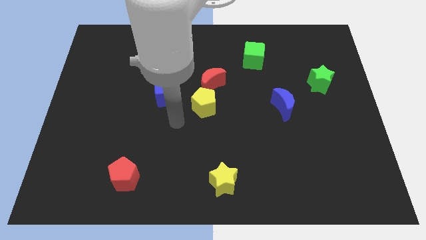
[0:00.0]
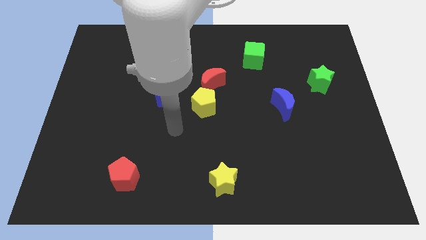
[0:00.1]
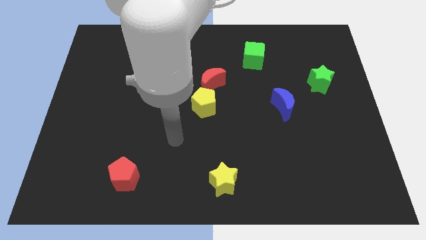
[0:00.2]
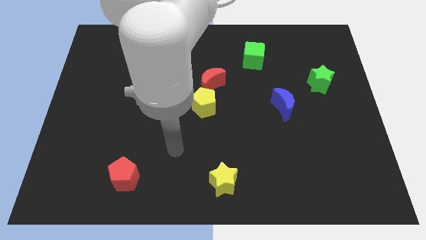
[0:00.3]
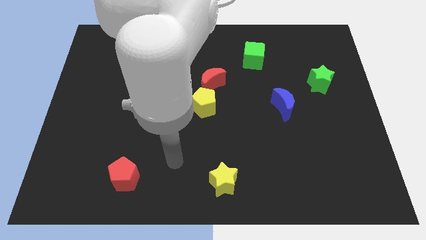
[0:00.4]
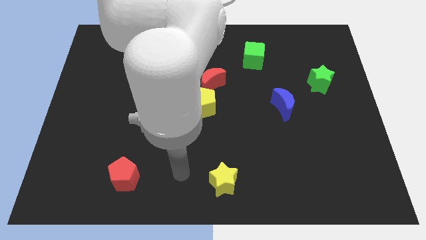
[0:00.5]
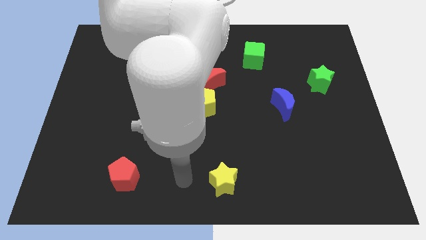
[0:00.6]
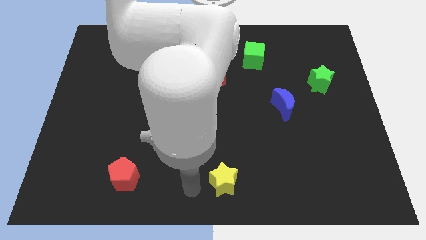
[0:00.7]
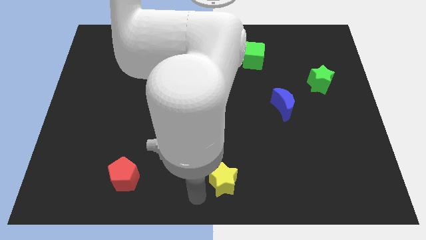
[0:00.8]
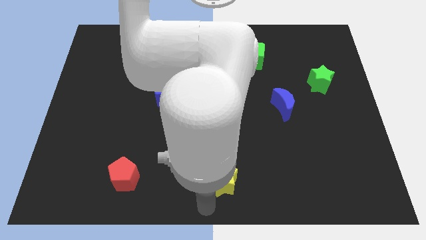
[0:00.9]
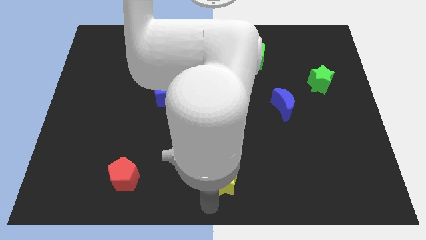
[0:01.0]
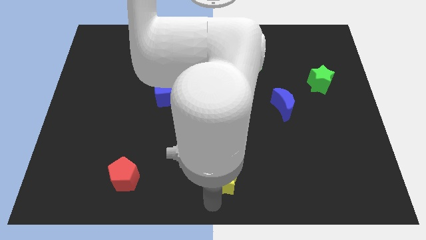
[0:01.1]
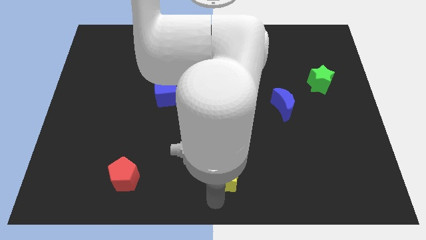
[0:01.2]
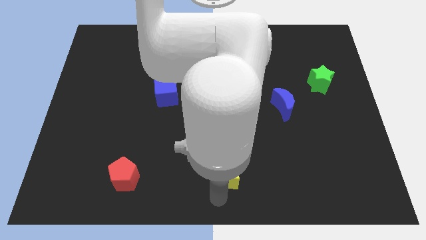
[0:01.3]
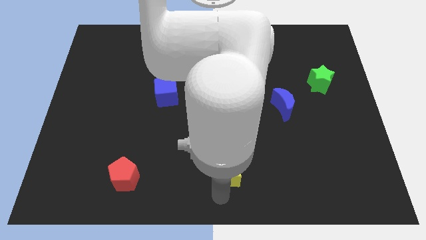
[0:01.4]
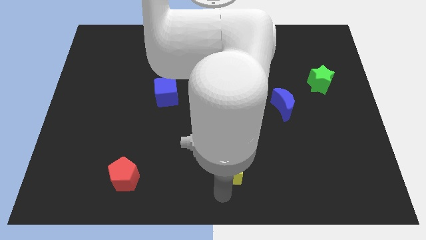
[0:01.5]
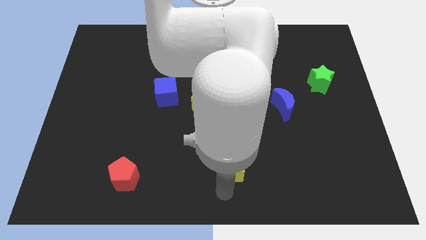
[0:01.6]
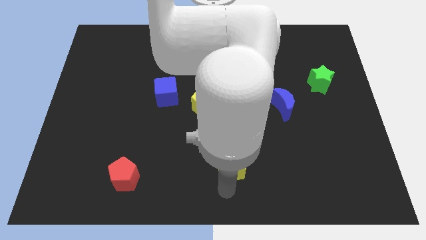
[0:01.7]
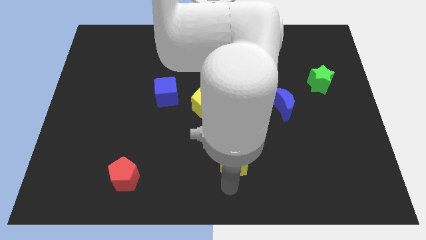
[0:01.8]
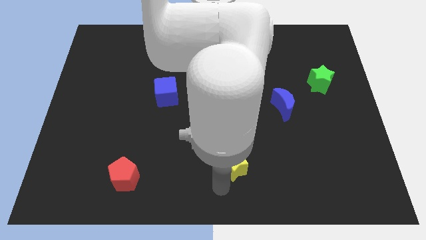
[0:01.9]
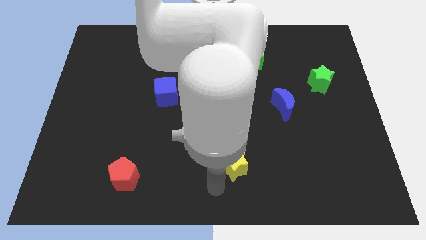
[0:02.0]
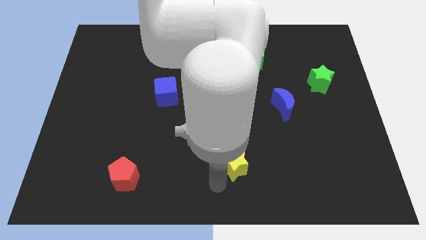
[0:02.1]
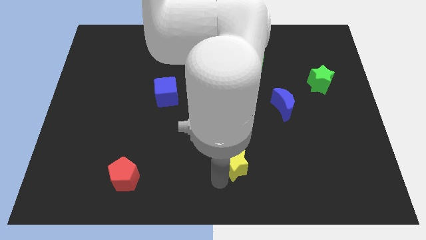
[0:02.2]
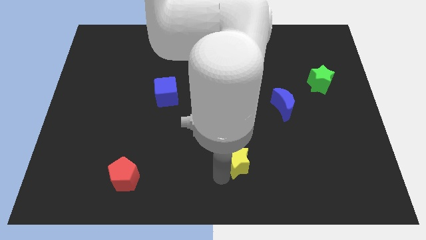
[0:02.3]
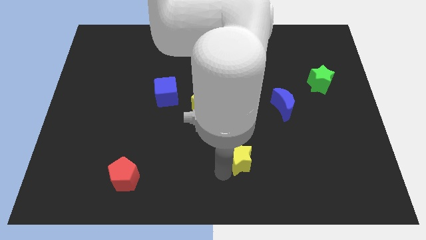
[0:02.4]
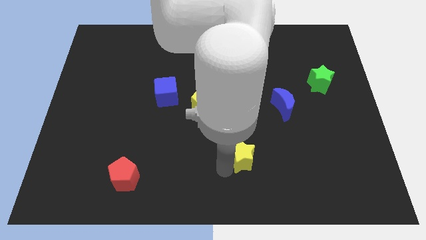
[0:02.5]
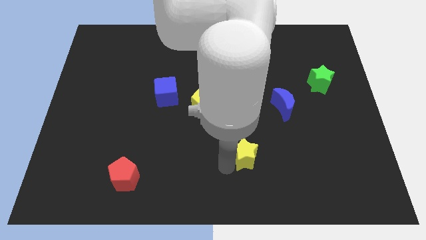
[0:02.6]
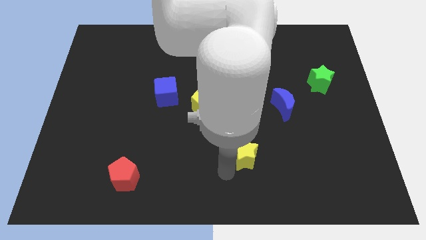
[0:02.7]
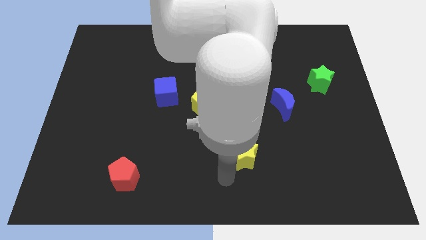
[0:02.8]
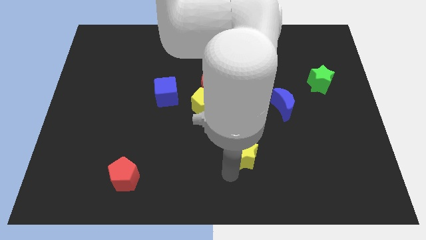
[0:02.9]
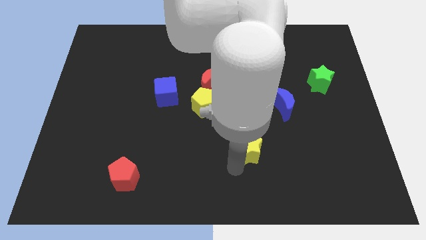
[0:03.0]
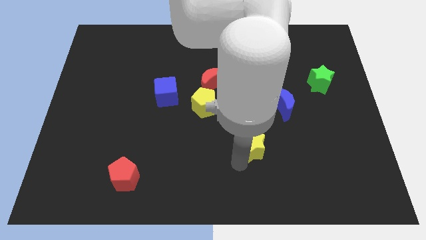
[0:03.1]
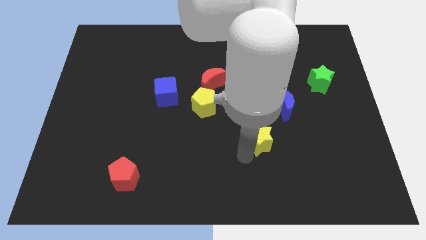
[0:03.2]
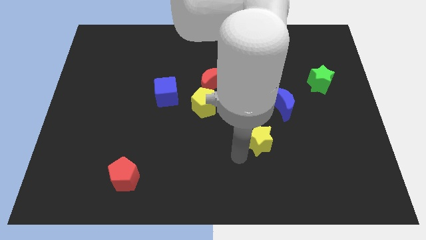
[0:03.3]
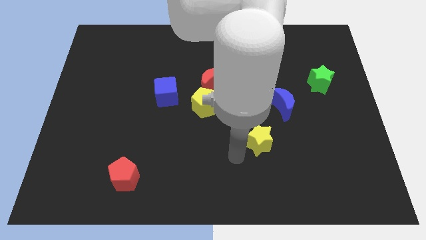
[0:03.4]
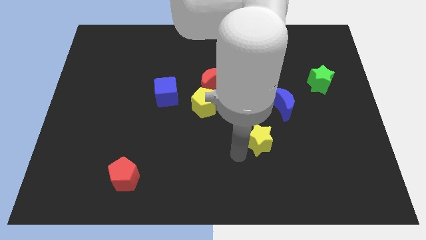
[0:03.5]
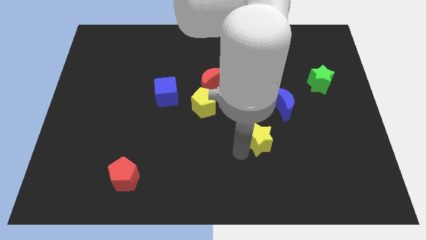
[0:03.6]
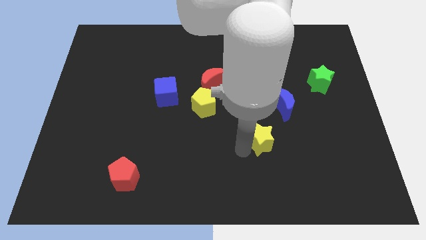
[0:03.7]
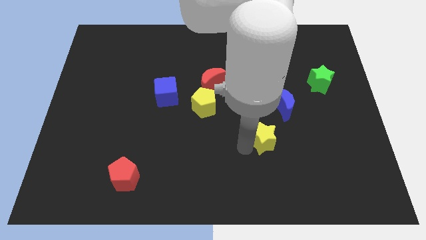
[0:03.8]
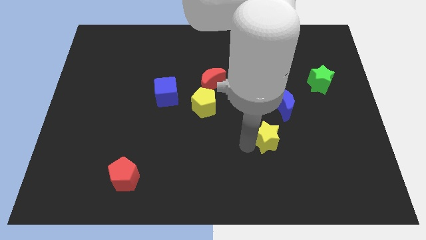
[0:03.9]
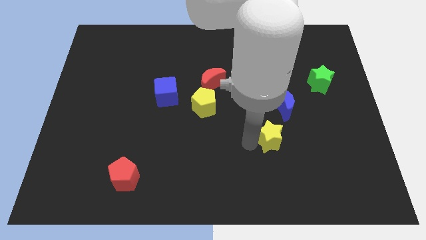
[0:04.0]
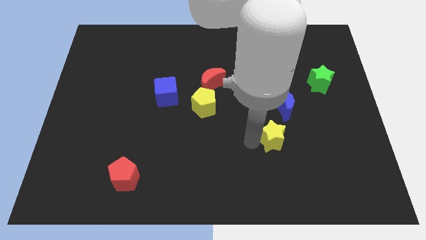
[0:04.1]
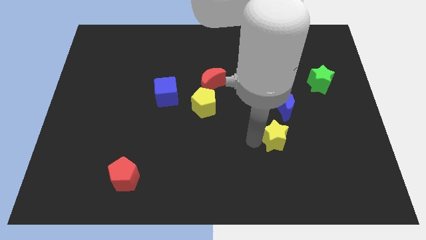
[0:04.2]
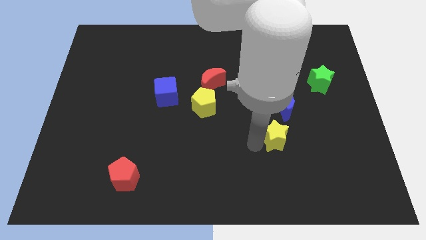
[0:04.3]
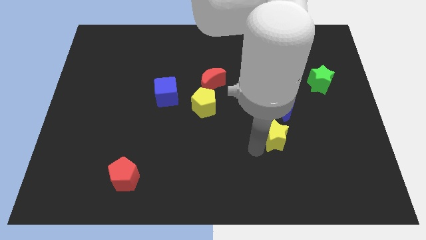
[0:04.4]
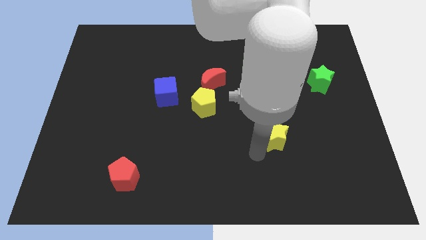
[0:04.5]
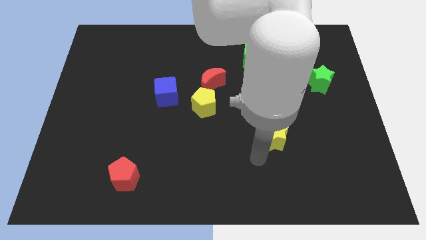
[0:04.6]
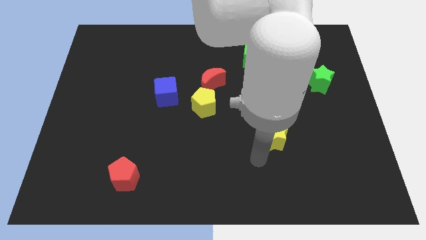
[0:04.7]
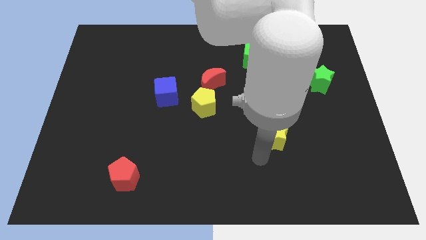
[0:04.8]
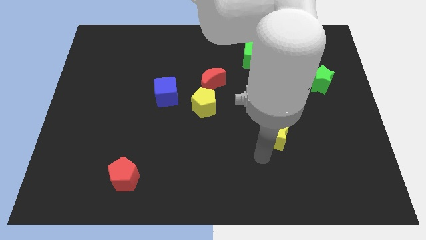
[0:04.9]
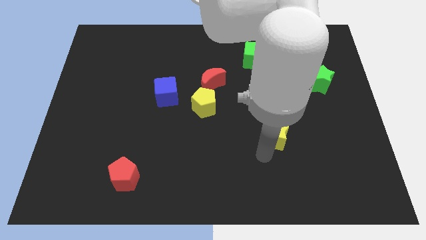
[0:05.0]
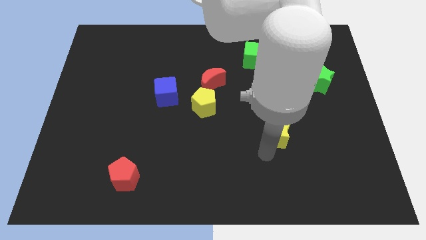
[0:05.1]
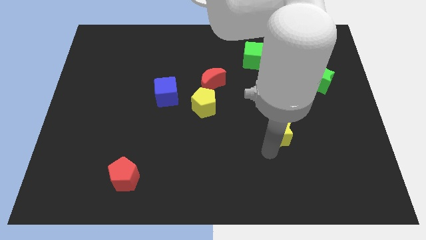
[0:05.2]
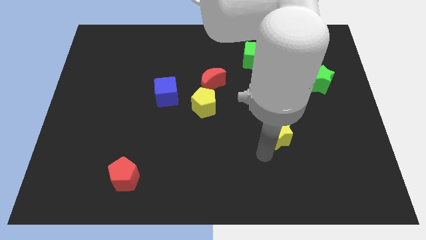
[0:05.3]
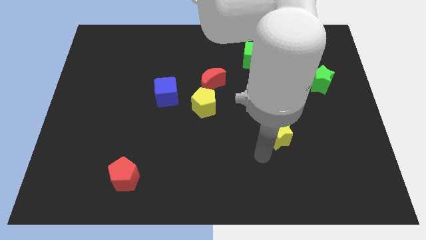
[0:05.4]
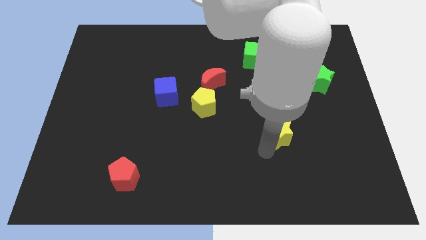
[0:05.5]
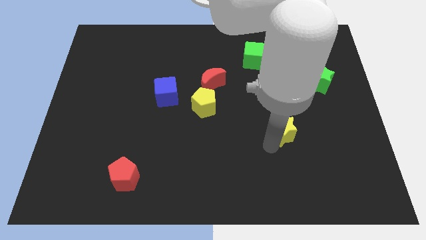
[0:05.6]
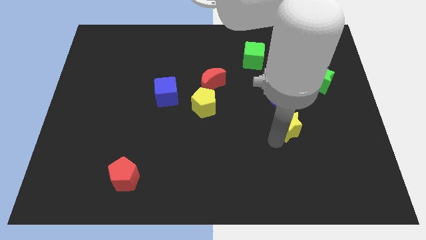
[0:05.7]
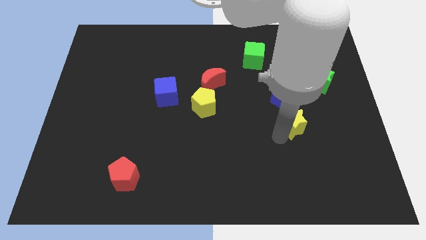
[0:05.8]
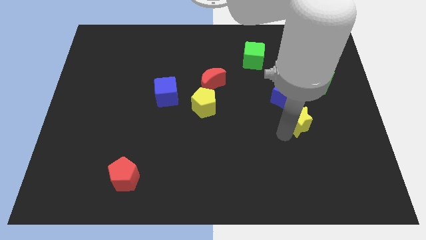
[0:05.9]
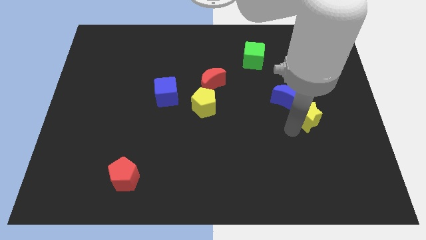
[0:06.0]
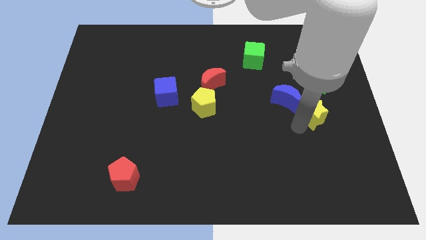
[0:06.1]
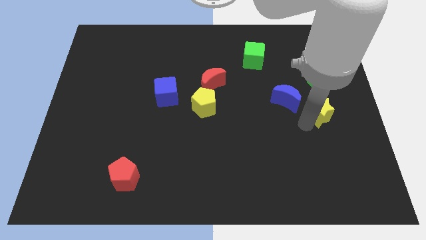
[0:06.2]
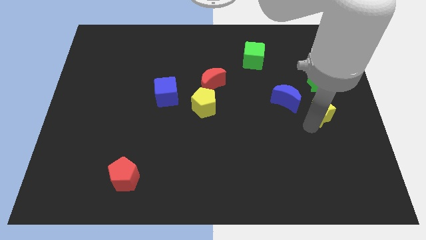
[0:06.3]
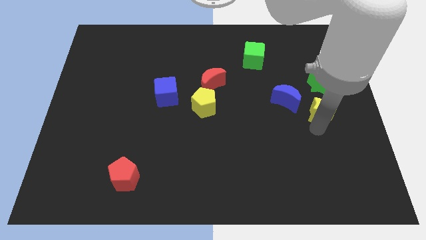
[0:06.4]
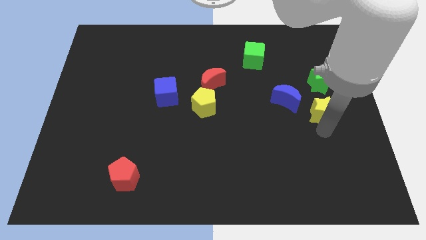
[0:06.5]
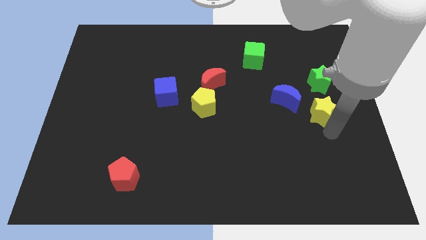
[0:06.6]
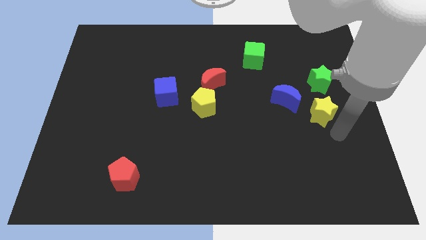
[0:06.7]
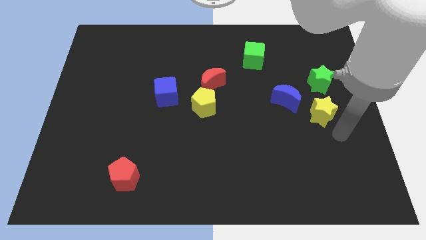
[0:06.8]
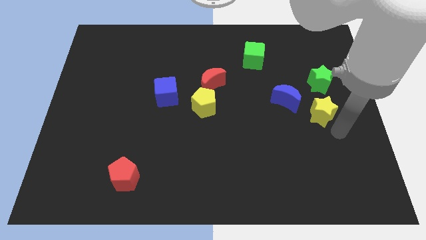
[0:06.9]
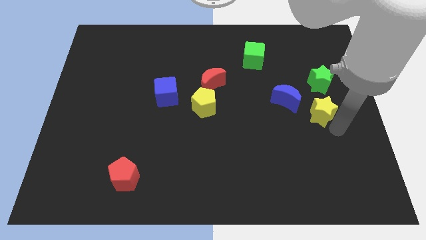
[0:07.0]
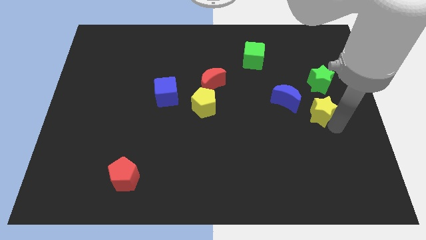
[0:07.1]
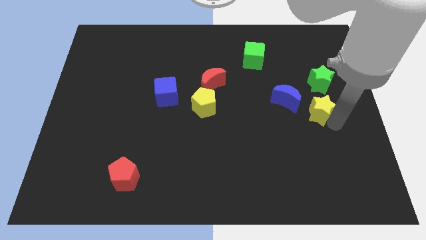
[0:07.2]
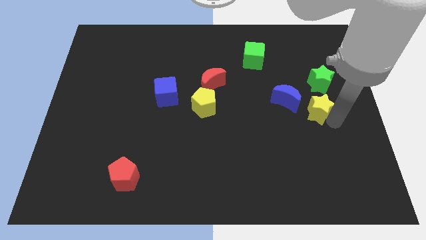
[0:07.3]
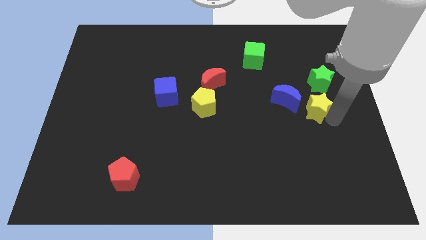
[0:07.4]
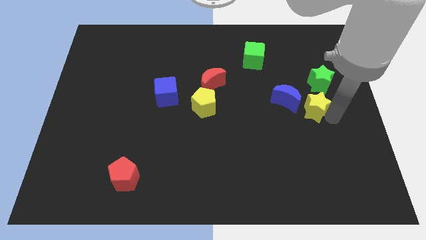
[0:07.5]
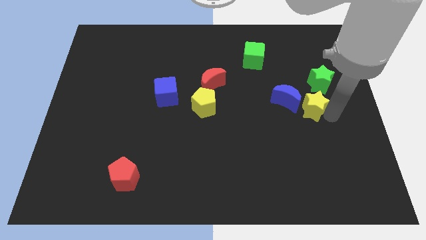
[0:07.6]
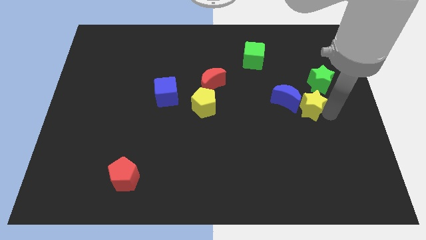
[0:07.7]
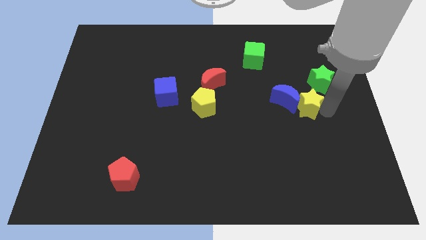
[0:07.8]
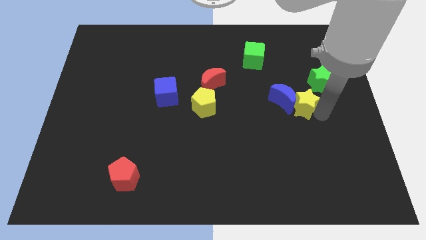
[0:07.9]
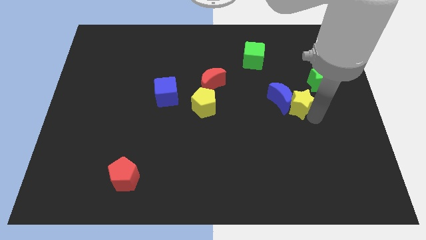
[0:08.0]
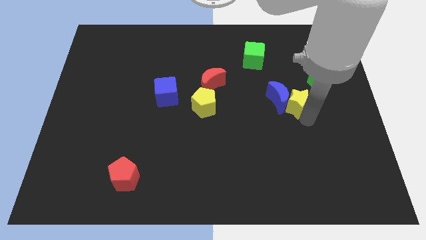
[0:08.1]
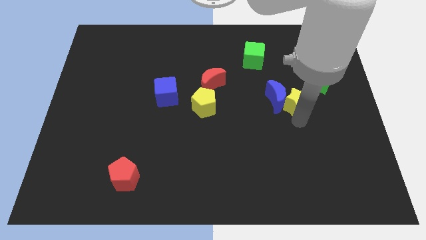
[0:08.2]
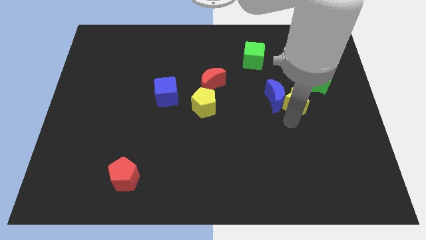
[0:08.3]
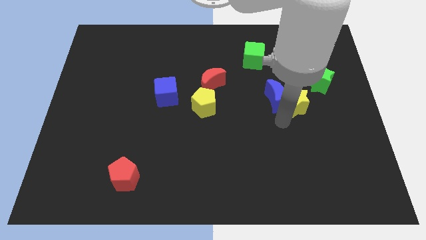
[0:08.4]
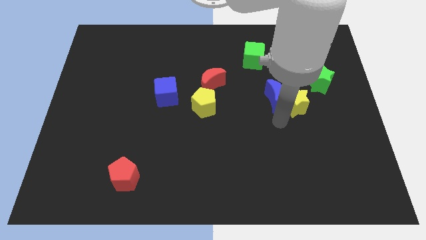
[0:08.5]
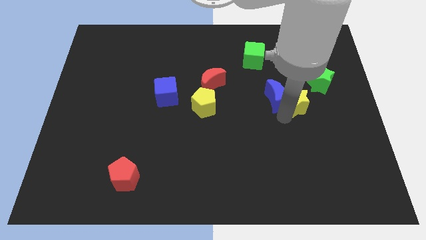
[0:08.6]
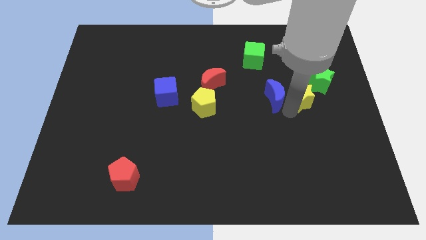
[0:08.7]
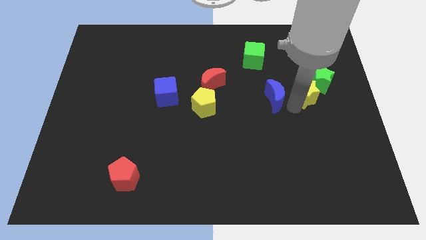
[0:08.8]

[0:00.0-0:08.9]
push the yellow star towards the green star
